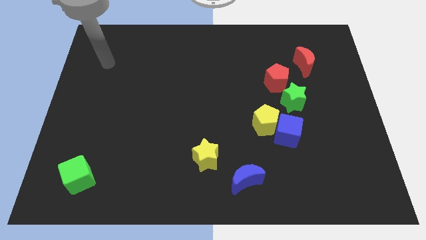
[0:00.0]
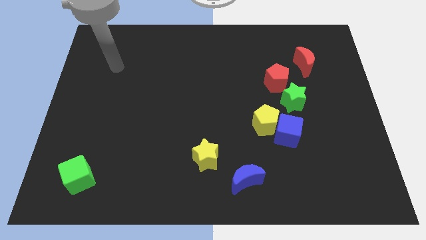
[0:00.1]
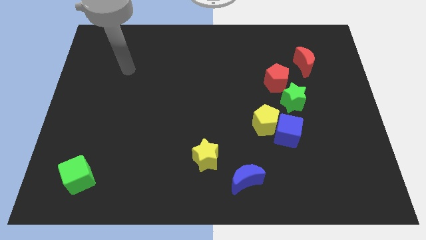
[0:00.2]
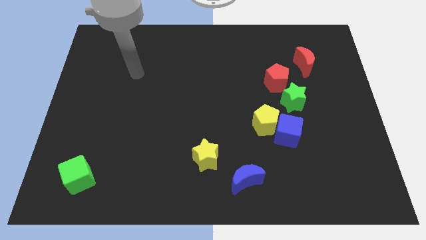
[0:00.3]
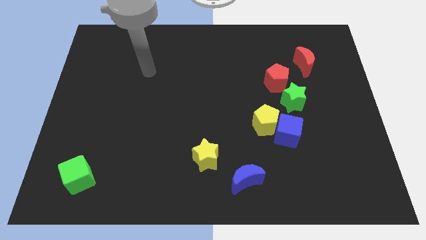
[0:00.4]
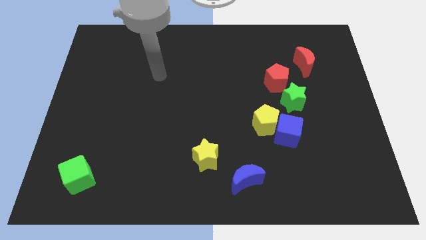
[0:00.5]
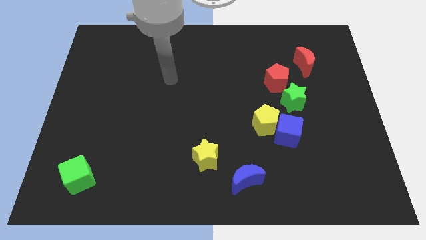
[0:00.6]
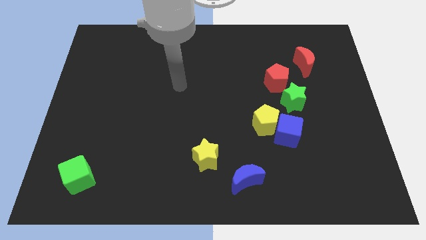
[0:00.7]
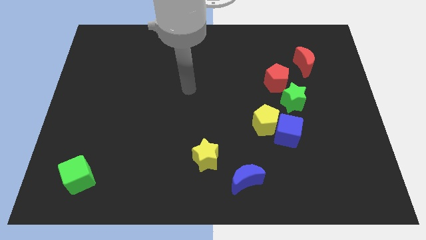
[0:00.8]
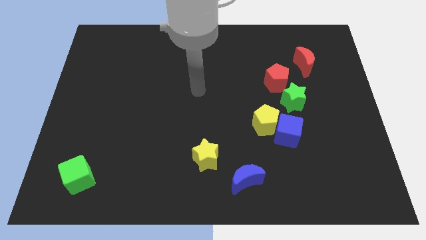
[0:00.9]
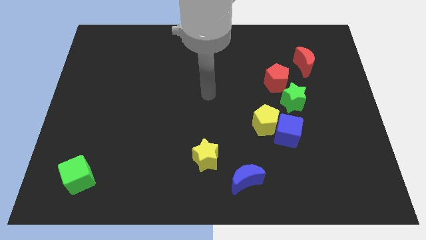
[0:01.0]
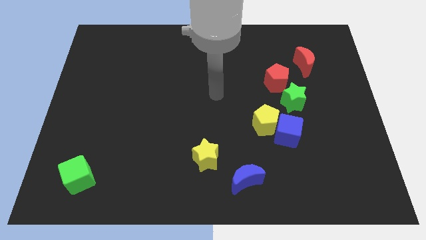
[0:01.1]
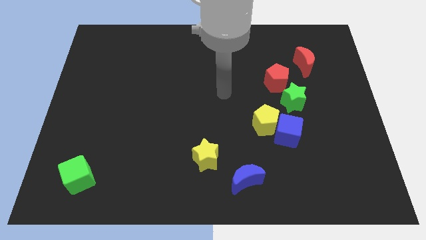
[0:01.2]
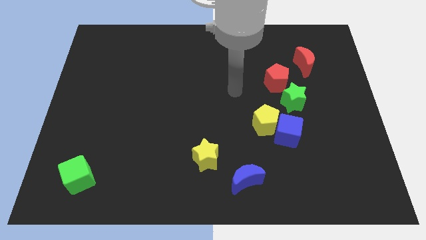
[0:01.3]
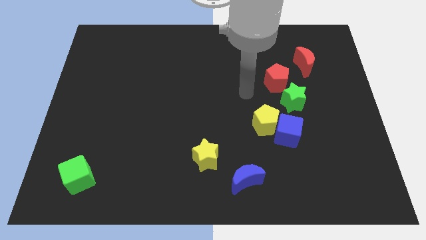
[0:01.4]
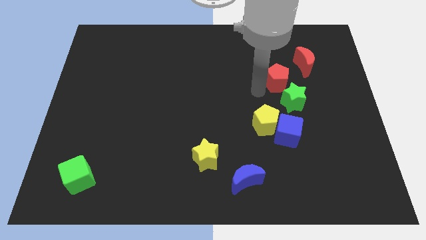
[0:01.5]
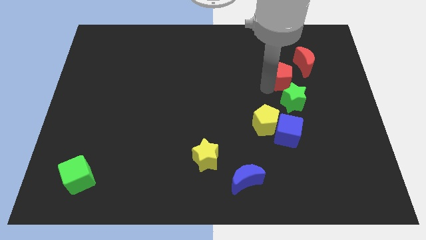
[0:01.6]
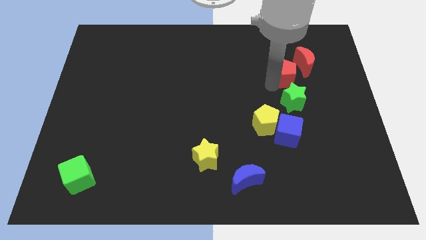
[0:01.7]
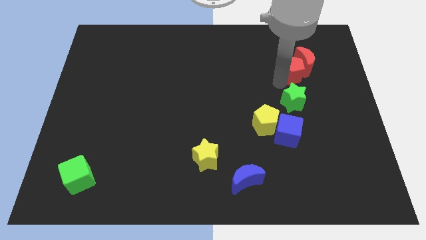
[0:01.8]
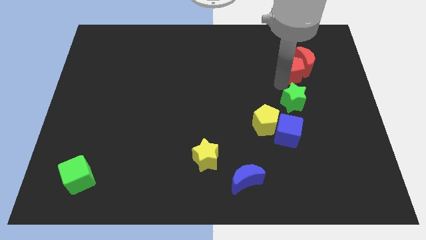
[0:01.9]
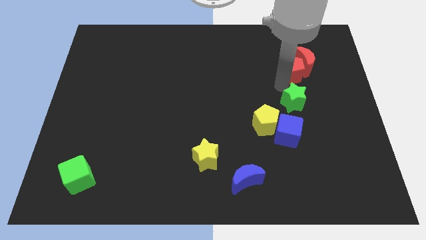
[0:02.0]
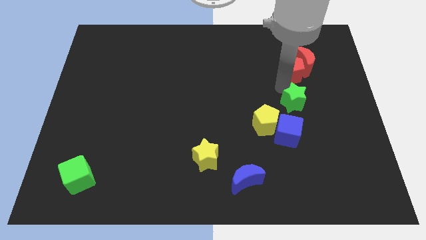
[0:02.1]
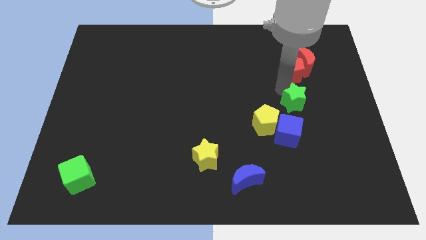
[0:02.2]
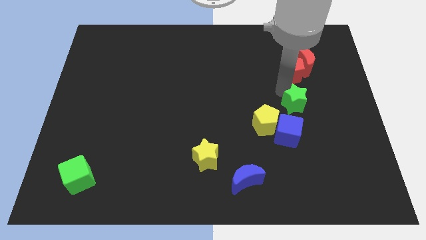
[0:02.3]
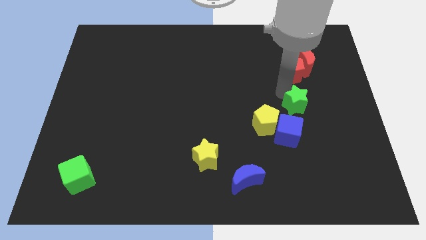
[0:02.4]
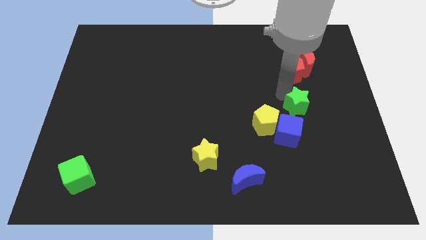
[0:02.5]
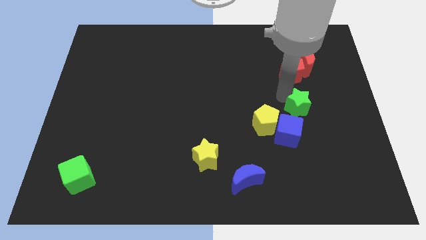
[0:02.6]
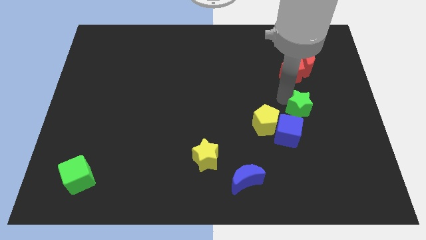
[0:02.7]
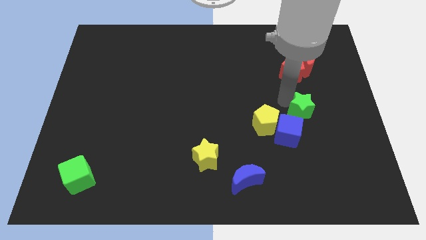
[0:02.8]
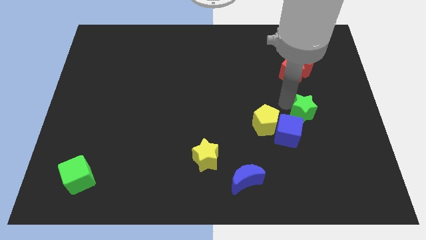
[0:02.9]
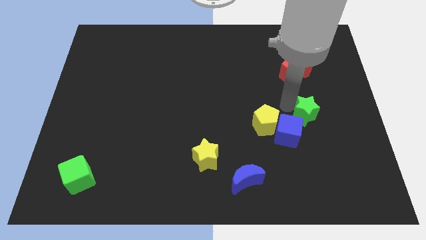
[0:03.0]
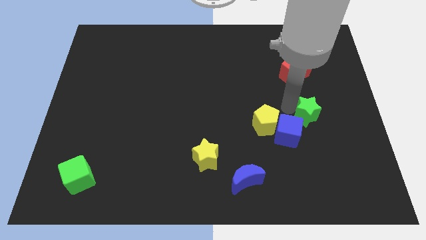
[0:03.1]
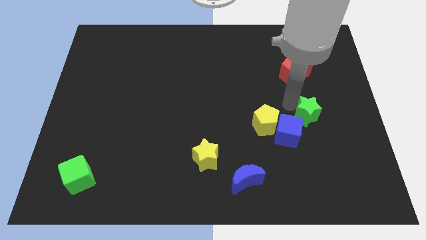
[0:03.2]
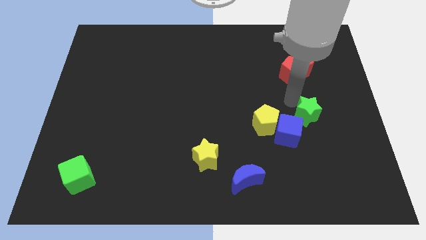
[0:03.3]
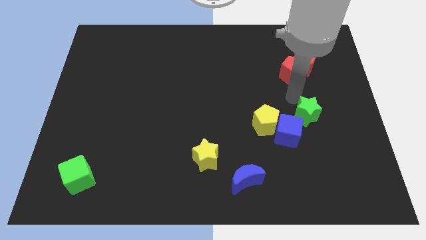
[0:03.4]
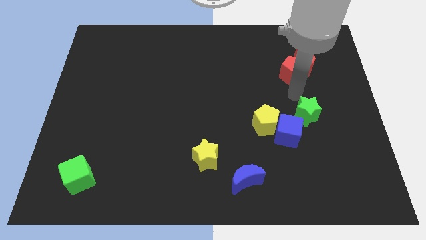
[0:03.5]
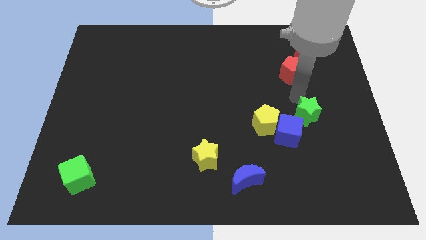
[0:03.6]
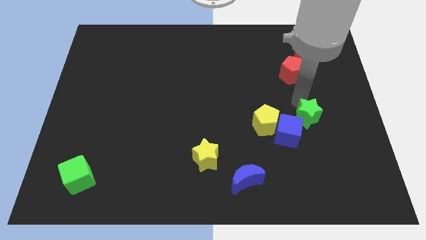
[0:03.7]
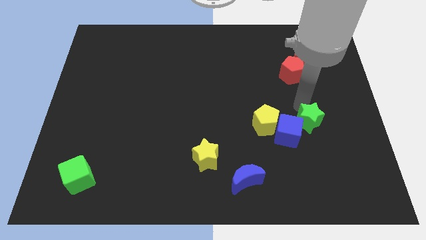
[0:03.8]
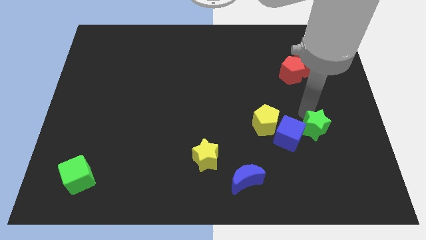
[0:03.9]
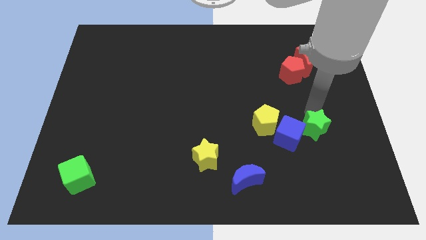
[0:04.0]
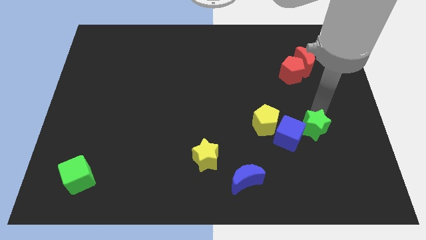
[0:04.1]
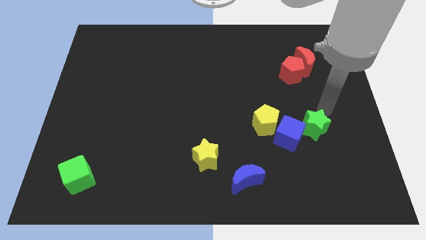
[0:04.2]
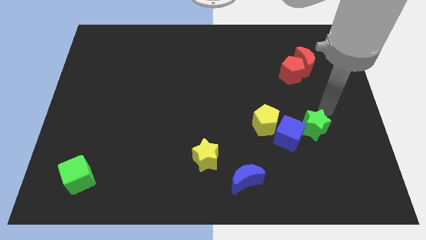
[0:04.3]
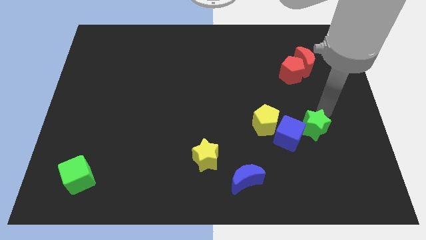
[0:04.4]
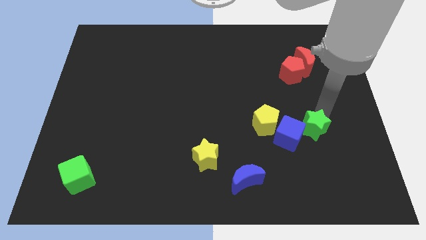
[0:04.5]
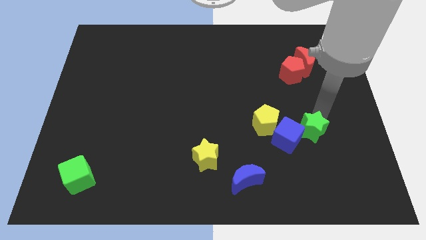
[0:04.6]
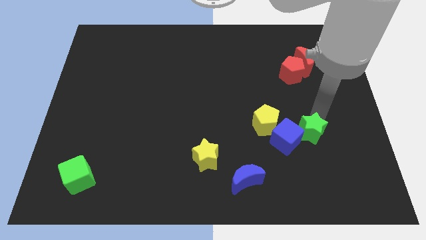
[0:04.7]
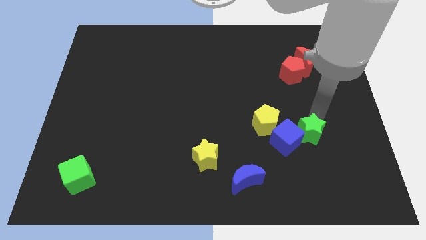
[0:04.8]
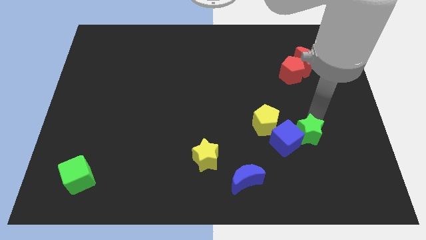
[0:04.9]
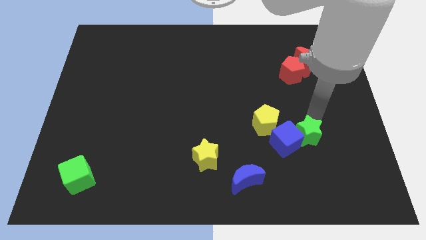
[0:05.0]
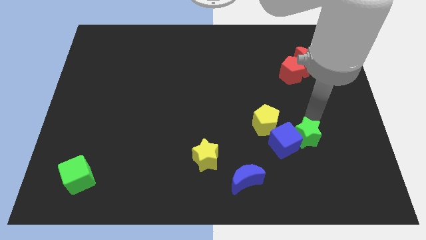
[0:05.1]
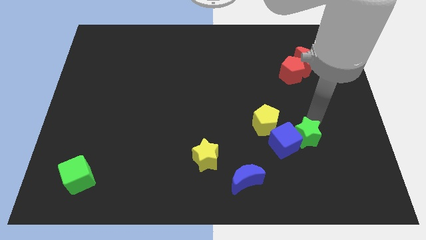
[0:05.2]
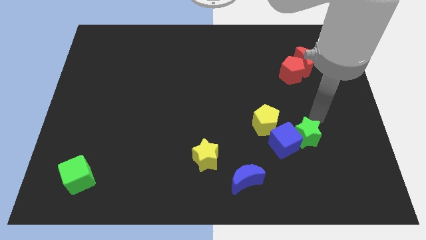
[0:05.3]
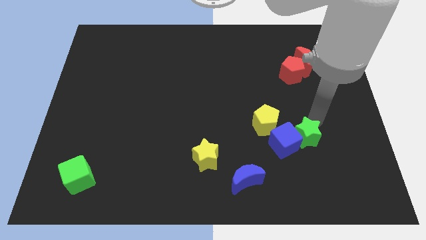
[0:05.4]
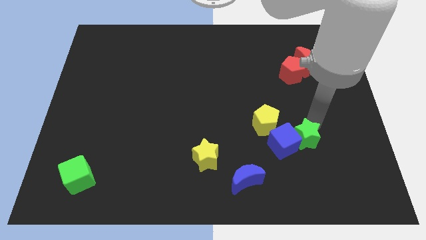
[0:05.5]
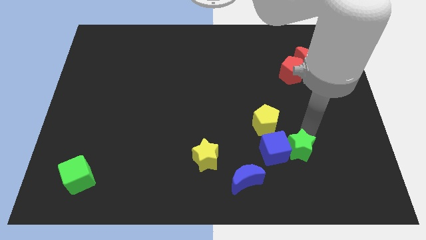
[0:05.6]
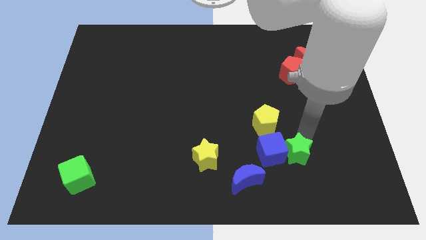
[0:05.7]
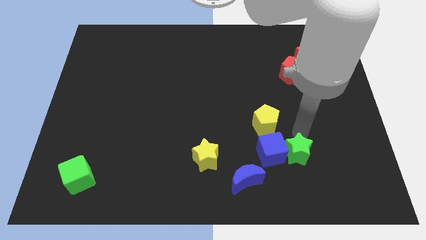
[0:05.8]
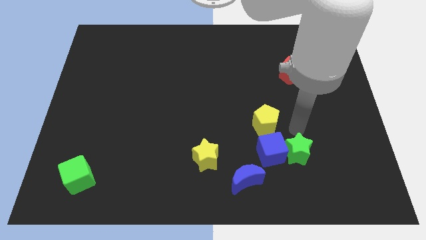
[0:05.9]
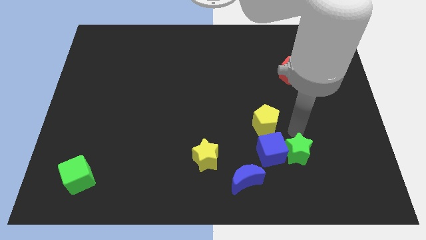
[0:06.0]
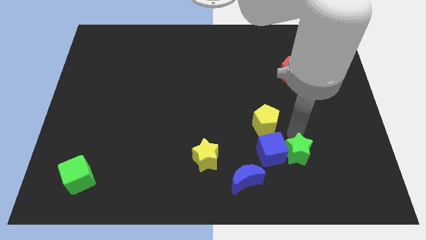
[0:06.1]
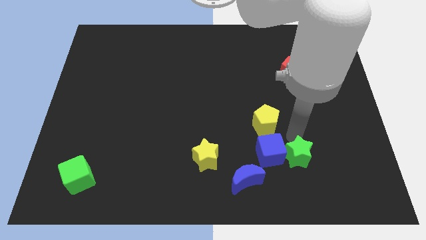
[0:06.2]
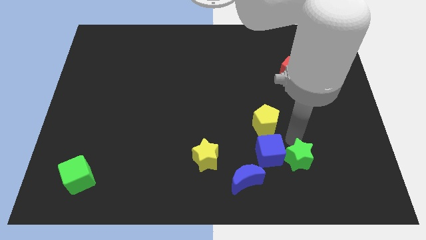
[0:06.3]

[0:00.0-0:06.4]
move the green star to the right of the blue moon
